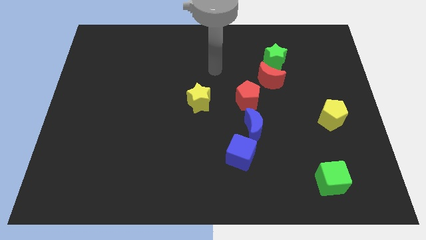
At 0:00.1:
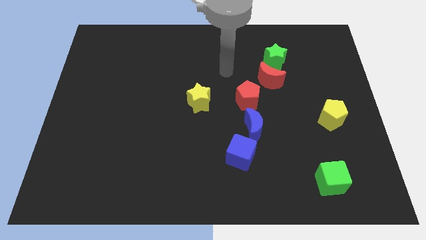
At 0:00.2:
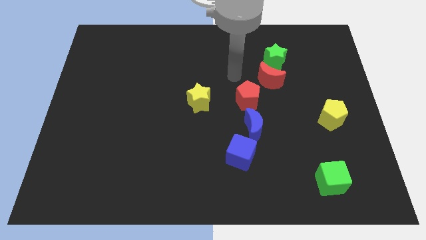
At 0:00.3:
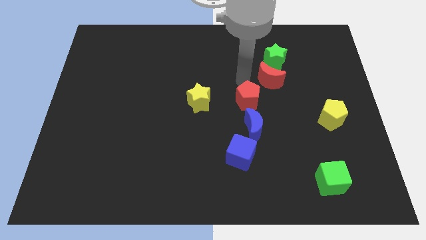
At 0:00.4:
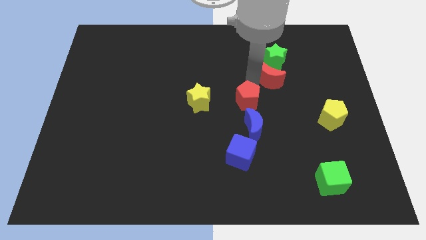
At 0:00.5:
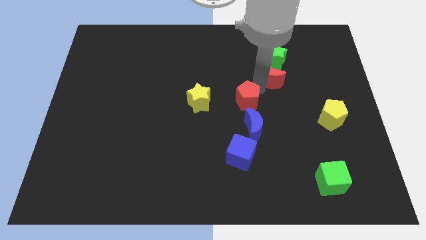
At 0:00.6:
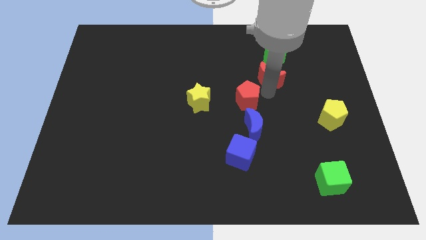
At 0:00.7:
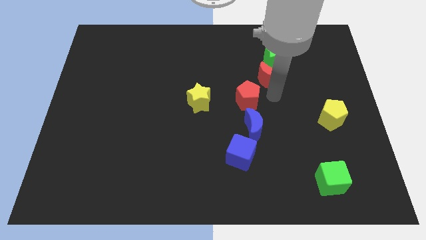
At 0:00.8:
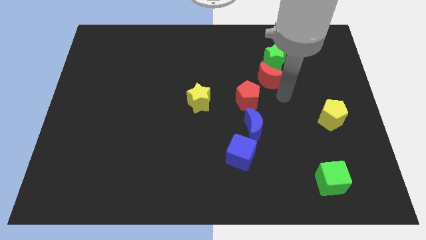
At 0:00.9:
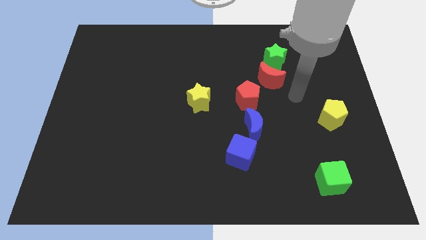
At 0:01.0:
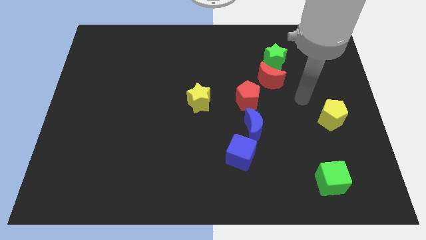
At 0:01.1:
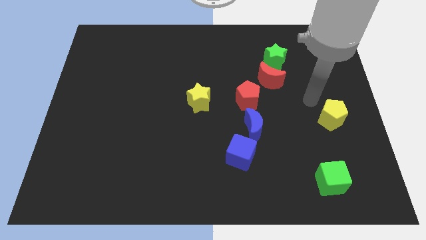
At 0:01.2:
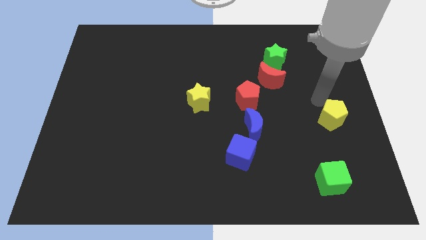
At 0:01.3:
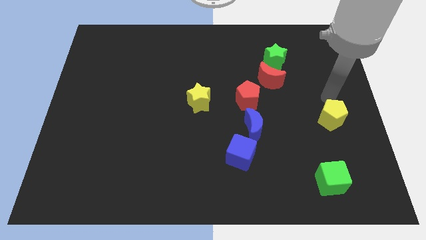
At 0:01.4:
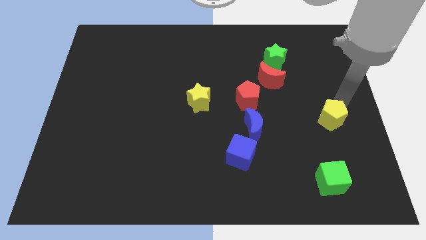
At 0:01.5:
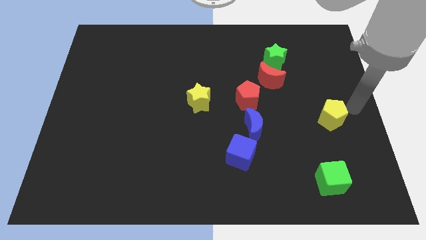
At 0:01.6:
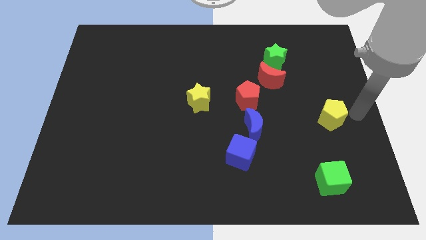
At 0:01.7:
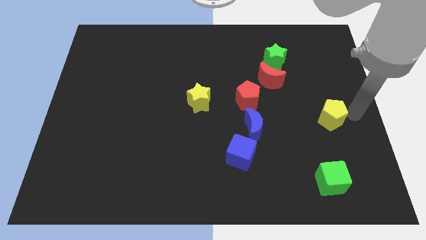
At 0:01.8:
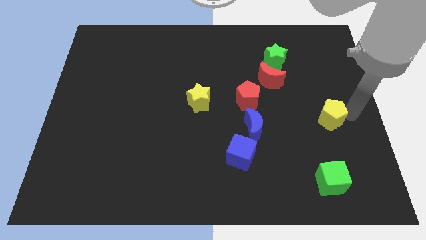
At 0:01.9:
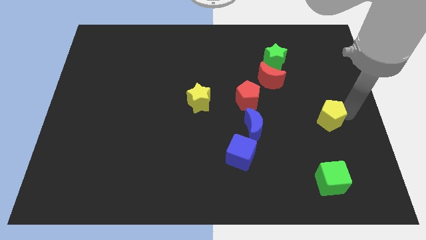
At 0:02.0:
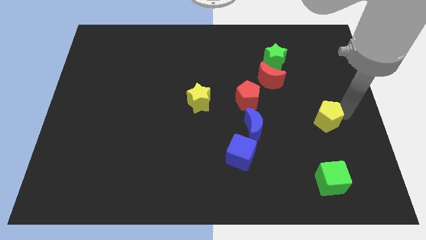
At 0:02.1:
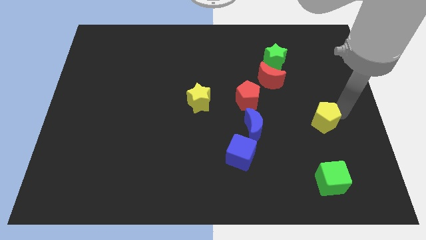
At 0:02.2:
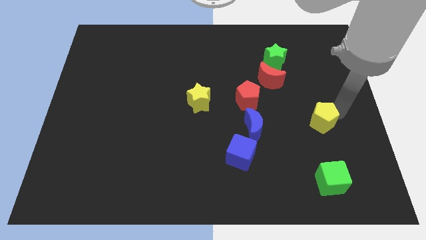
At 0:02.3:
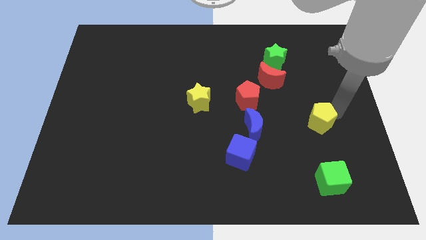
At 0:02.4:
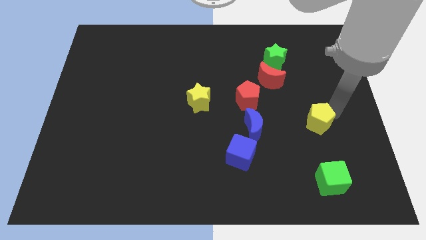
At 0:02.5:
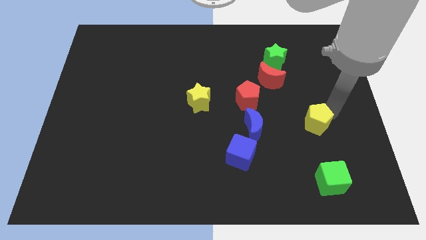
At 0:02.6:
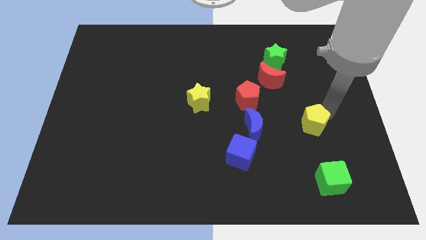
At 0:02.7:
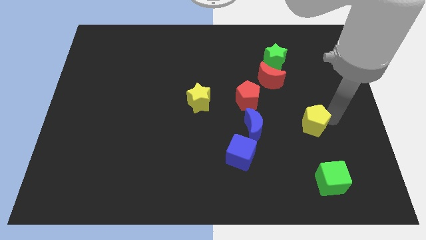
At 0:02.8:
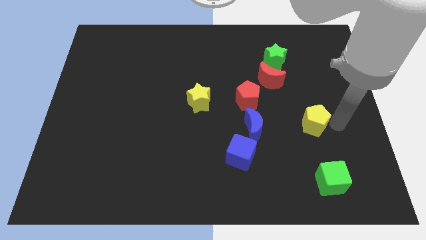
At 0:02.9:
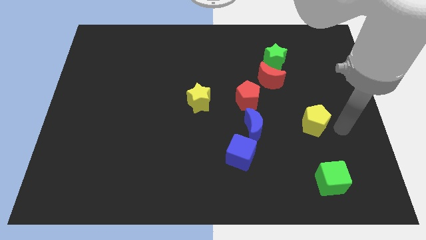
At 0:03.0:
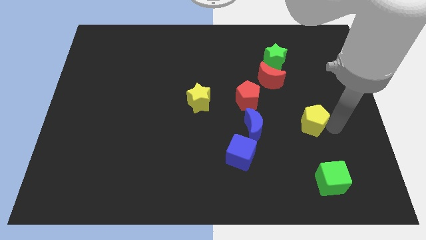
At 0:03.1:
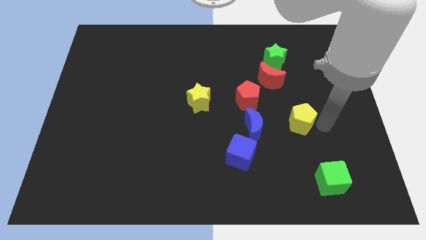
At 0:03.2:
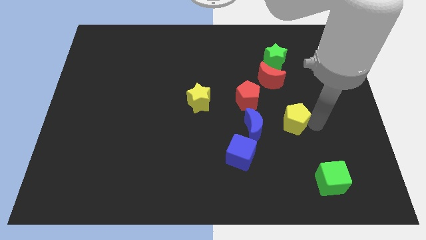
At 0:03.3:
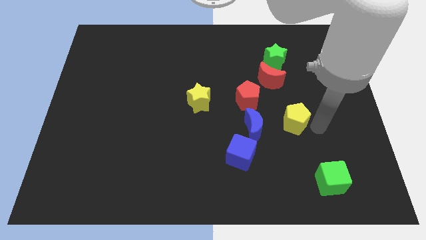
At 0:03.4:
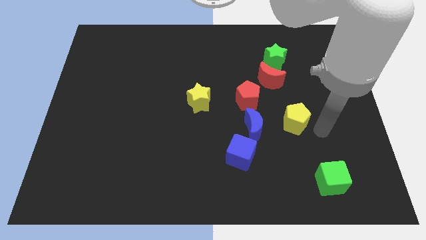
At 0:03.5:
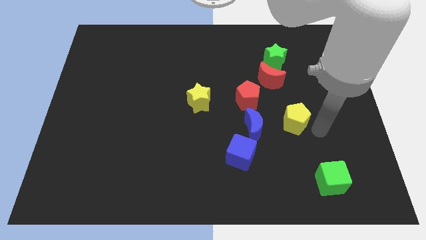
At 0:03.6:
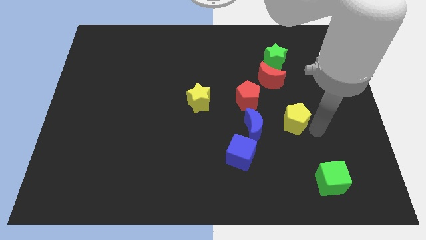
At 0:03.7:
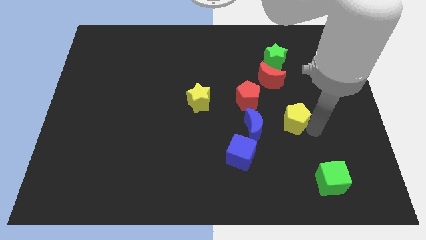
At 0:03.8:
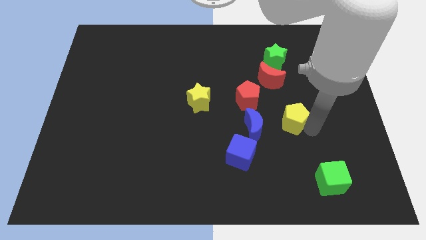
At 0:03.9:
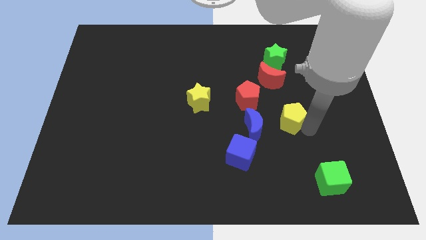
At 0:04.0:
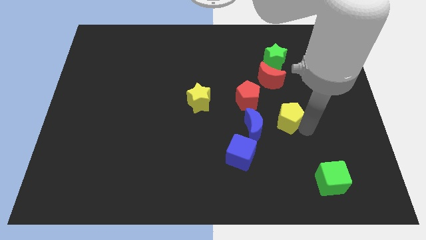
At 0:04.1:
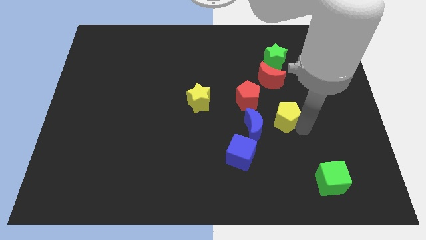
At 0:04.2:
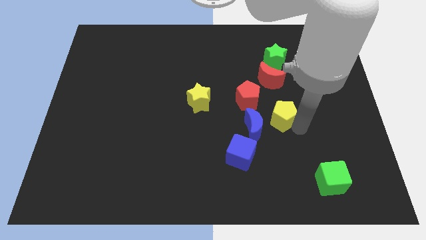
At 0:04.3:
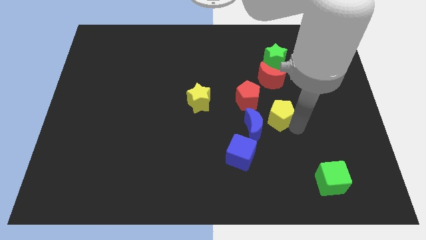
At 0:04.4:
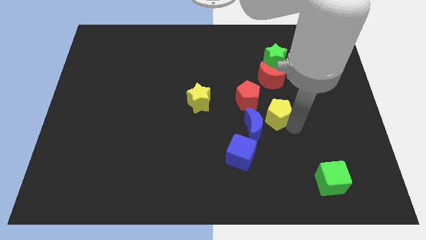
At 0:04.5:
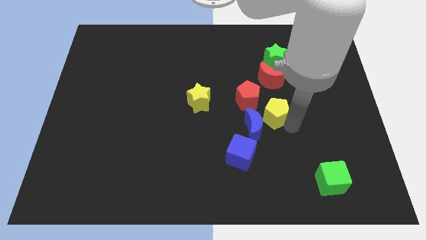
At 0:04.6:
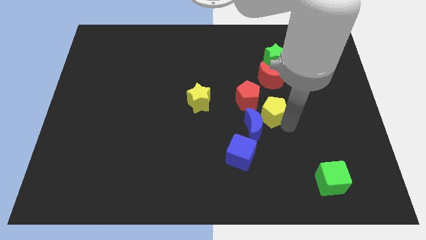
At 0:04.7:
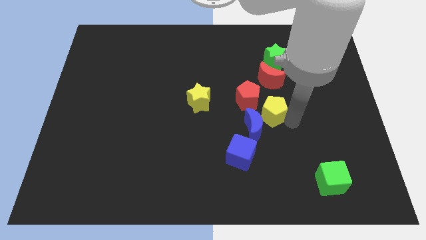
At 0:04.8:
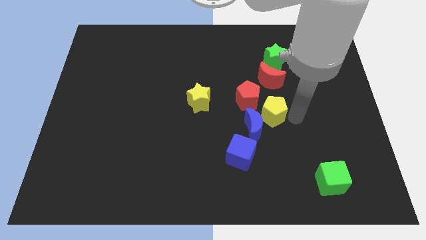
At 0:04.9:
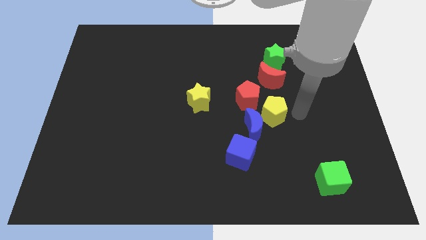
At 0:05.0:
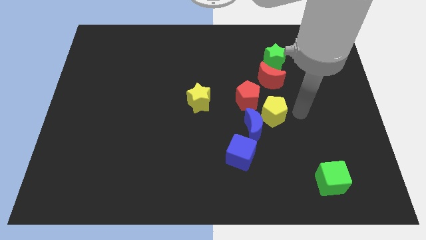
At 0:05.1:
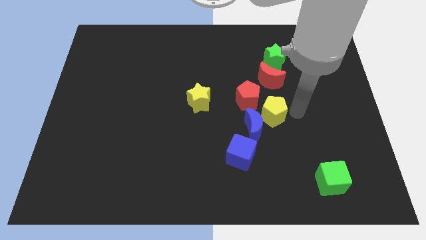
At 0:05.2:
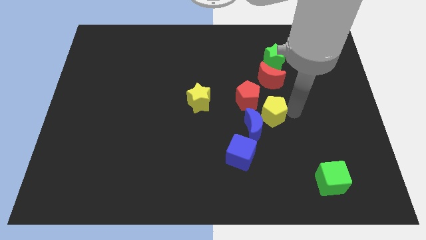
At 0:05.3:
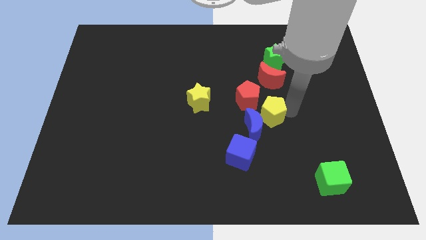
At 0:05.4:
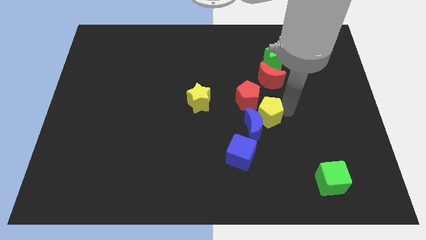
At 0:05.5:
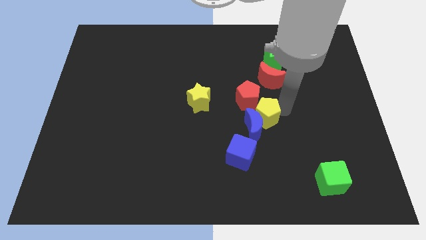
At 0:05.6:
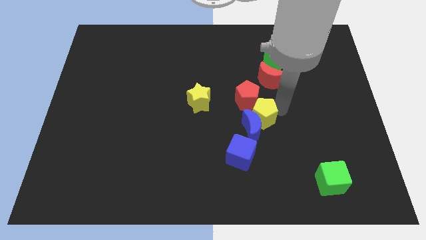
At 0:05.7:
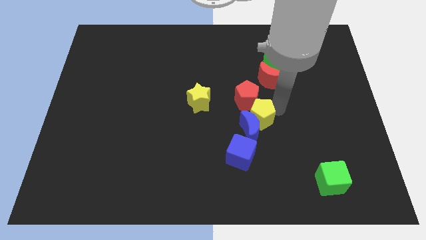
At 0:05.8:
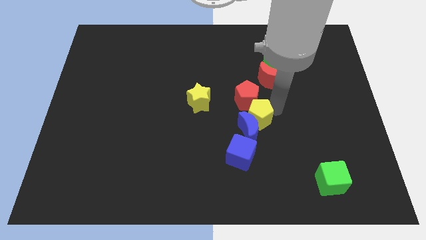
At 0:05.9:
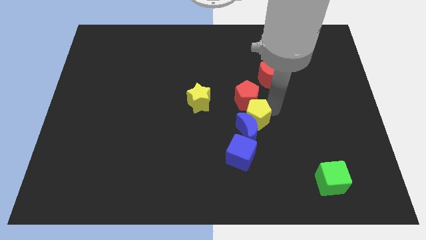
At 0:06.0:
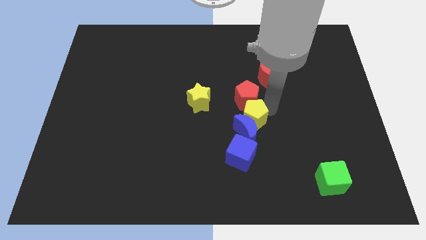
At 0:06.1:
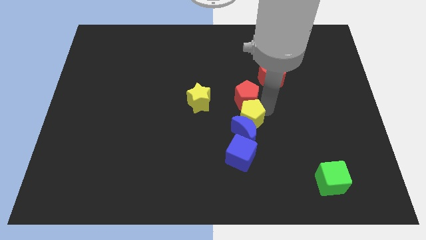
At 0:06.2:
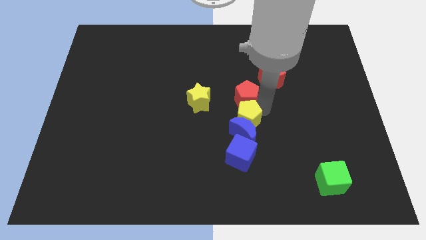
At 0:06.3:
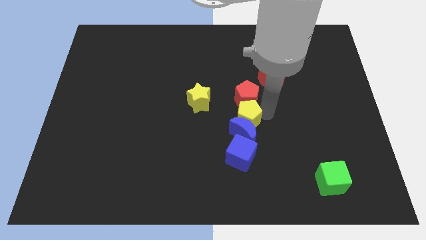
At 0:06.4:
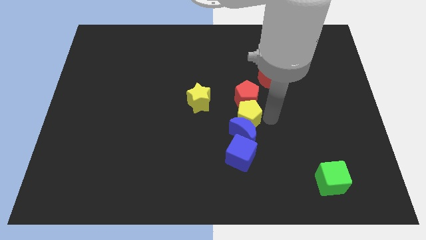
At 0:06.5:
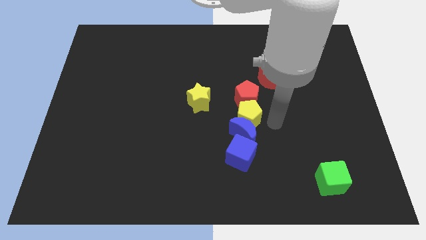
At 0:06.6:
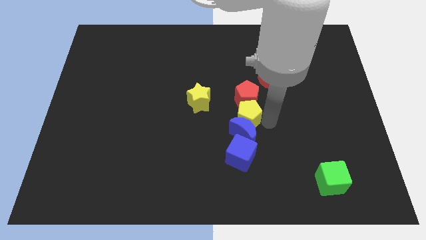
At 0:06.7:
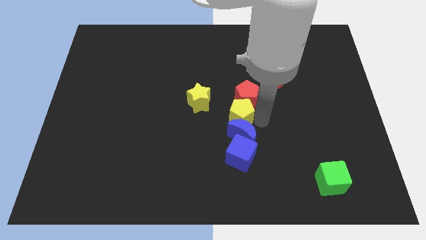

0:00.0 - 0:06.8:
push the yellow pentagon to the left

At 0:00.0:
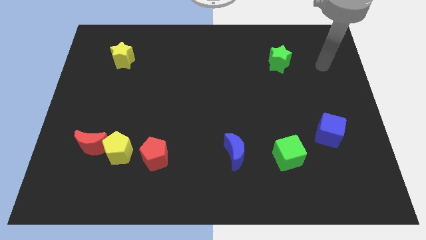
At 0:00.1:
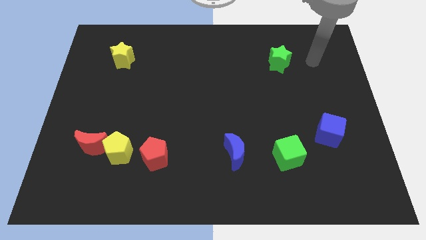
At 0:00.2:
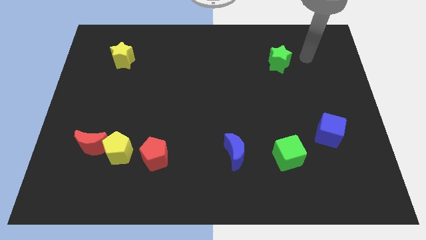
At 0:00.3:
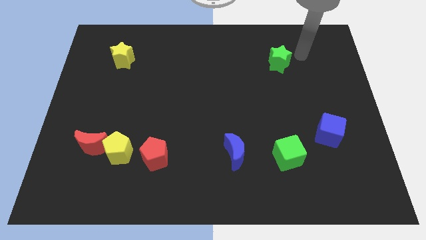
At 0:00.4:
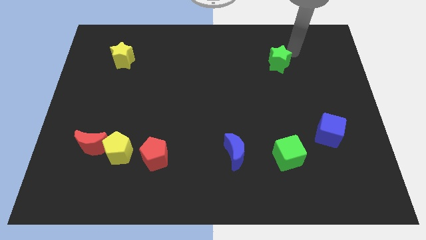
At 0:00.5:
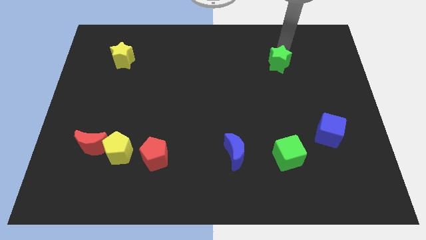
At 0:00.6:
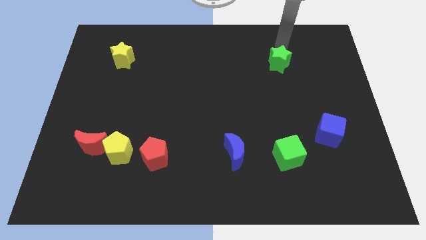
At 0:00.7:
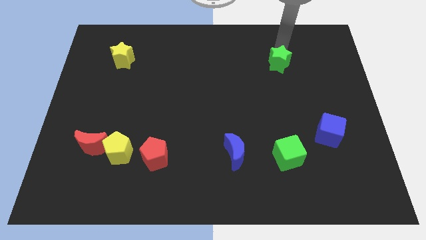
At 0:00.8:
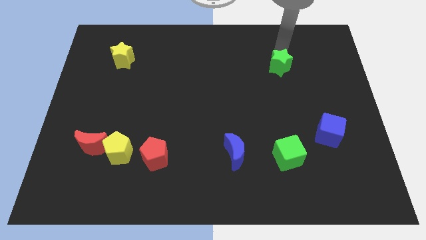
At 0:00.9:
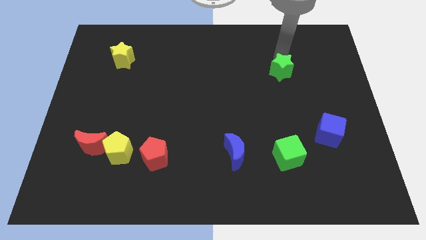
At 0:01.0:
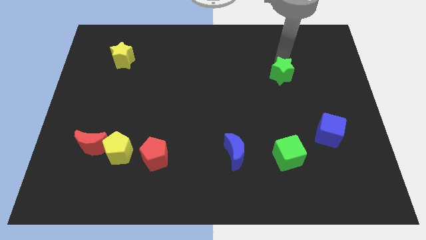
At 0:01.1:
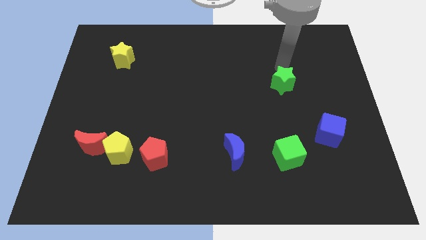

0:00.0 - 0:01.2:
slightly slide the green star down

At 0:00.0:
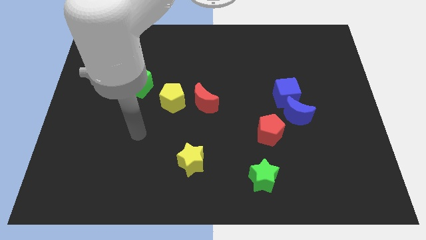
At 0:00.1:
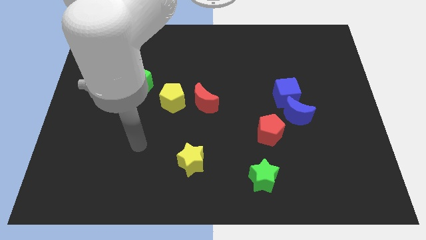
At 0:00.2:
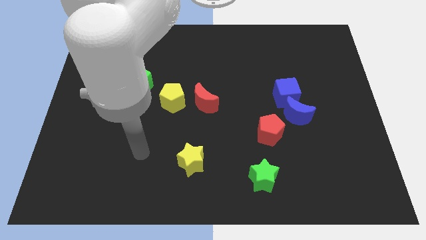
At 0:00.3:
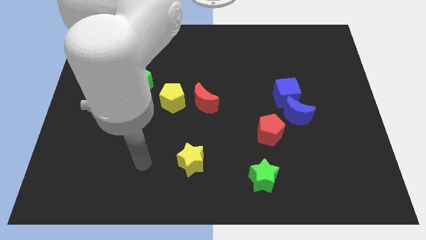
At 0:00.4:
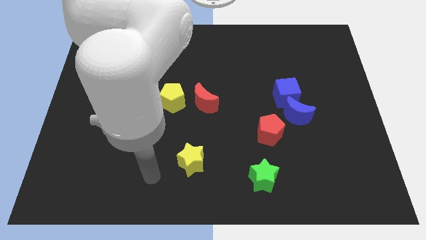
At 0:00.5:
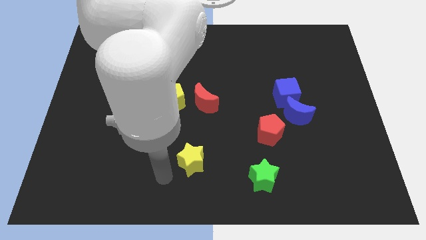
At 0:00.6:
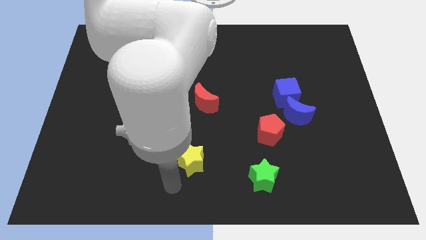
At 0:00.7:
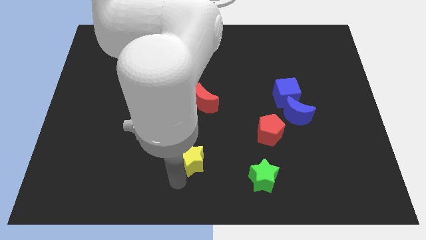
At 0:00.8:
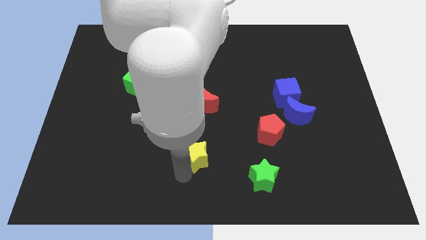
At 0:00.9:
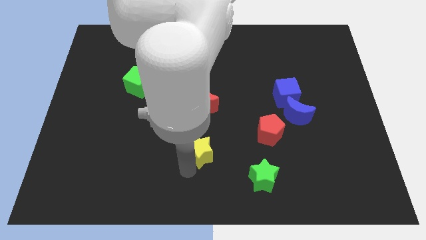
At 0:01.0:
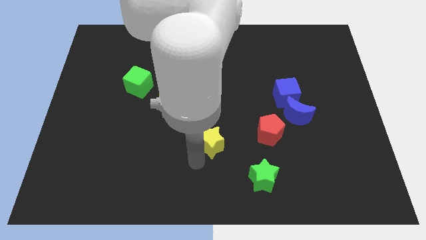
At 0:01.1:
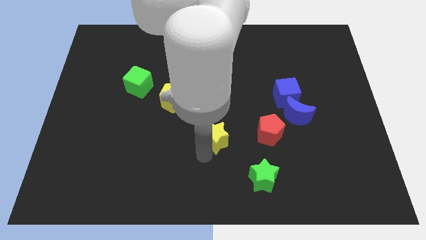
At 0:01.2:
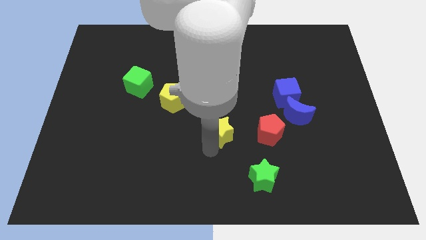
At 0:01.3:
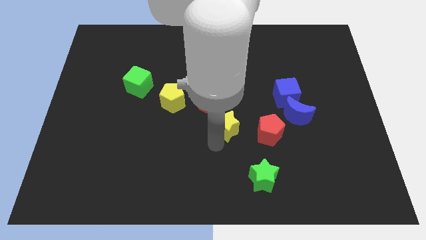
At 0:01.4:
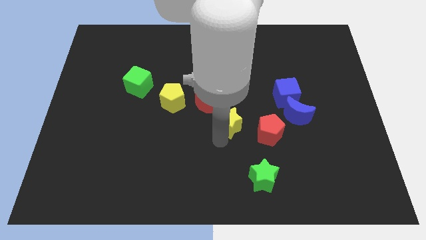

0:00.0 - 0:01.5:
slightly slide the yellow star upwards
